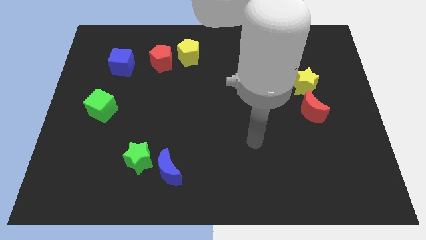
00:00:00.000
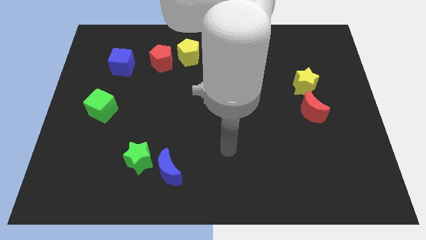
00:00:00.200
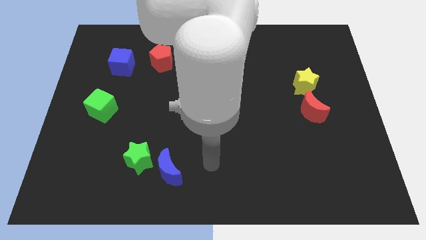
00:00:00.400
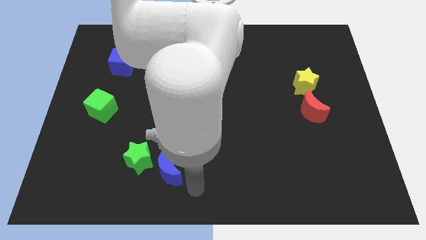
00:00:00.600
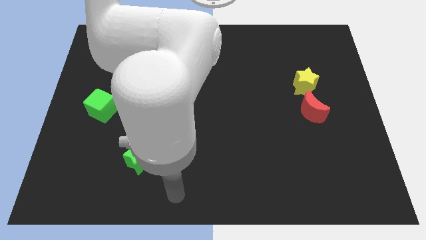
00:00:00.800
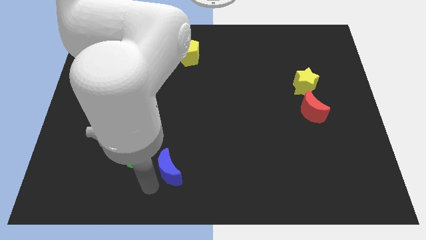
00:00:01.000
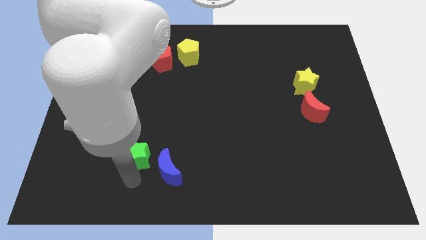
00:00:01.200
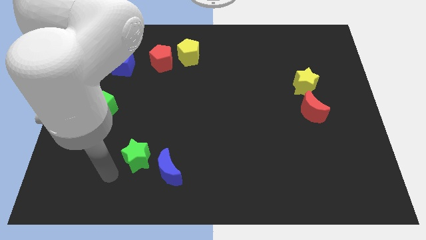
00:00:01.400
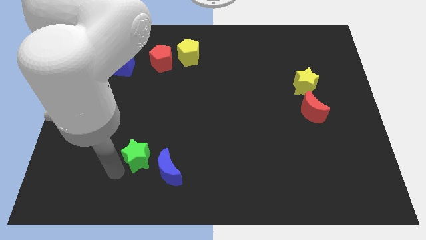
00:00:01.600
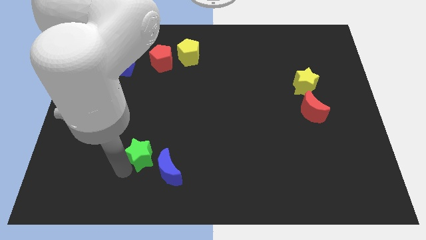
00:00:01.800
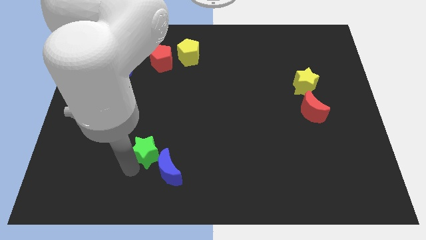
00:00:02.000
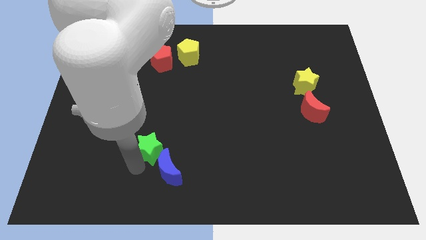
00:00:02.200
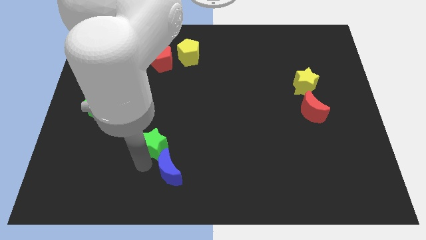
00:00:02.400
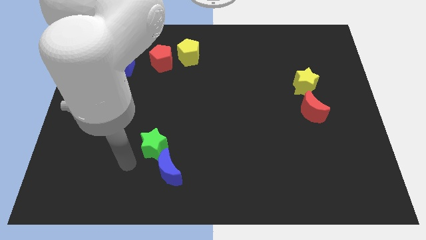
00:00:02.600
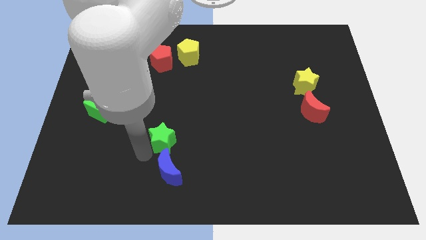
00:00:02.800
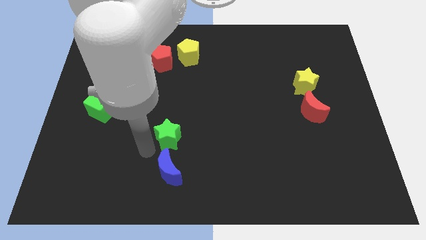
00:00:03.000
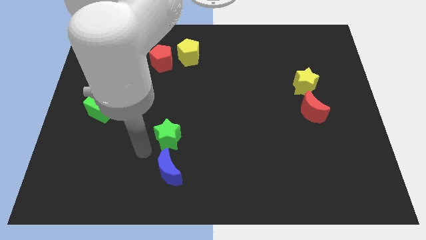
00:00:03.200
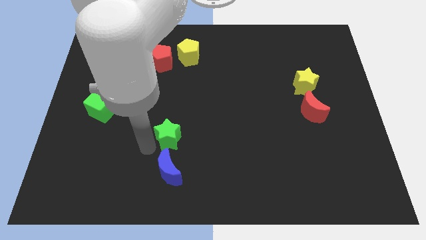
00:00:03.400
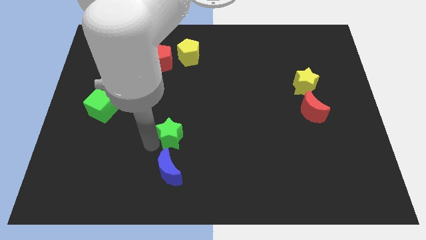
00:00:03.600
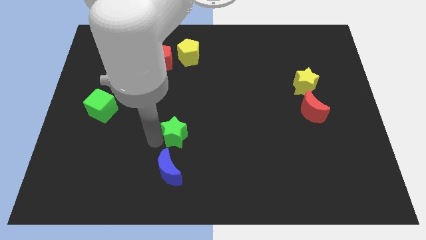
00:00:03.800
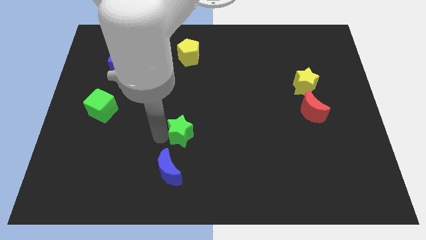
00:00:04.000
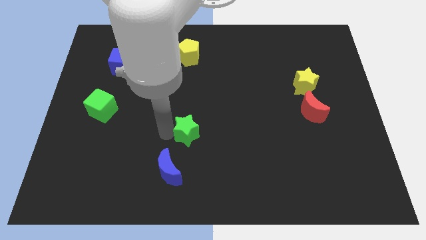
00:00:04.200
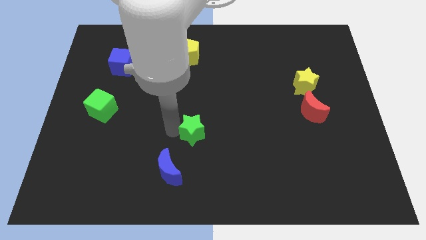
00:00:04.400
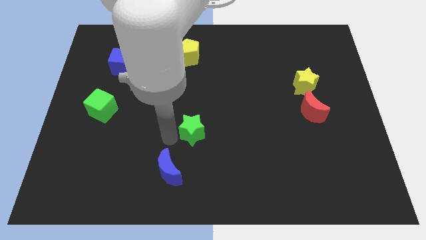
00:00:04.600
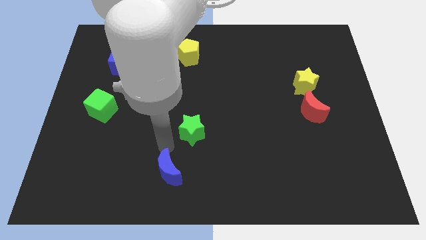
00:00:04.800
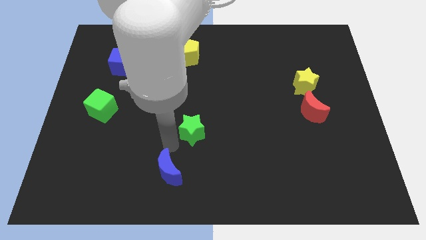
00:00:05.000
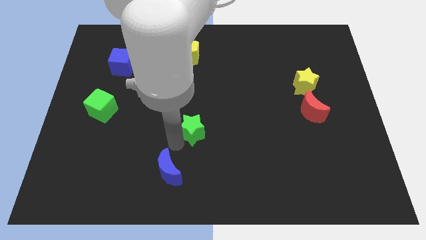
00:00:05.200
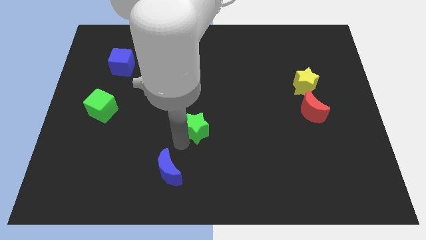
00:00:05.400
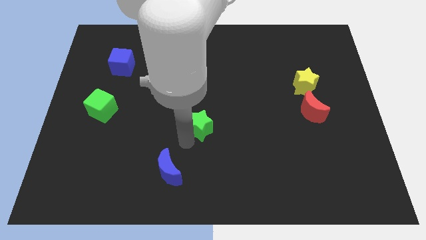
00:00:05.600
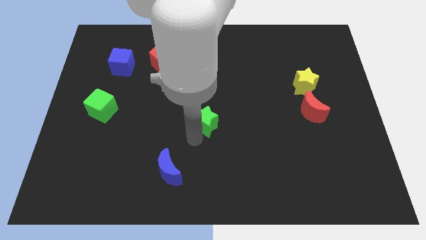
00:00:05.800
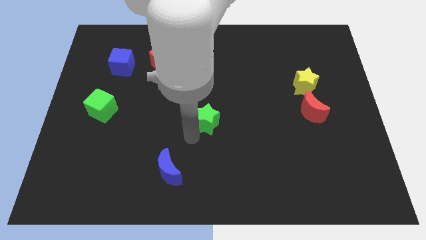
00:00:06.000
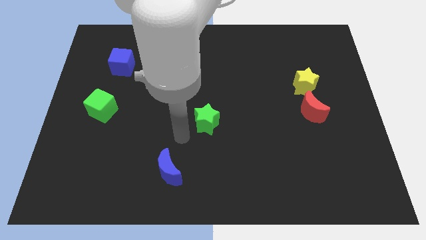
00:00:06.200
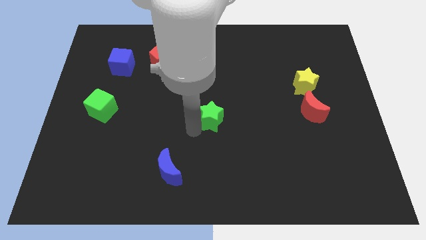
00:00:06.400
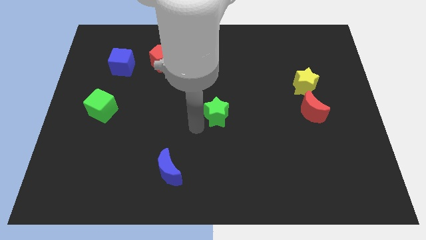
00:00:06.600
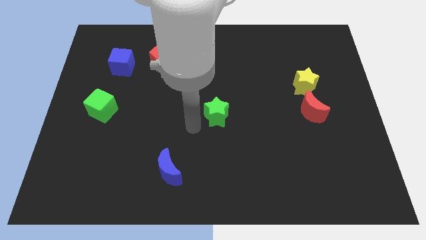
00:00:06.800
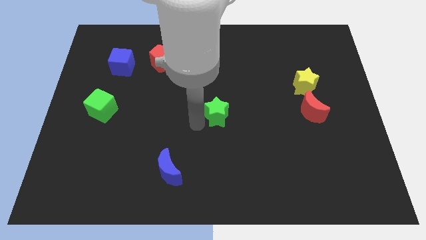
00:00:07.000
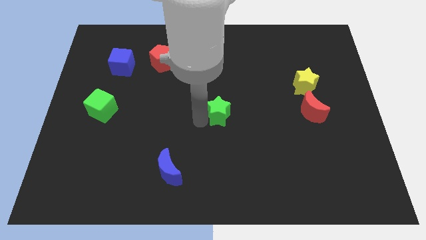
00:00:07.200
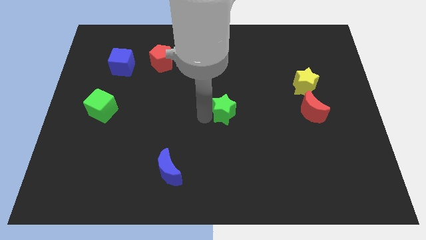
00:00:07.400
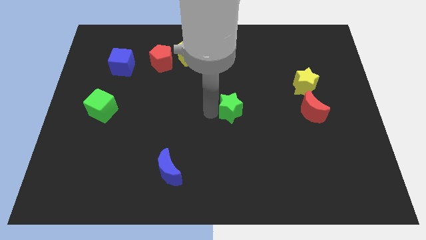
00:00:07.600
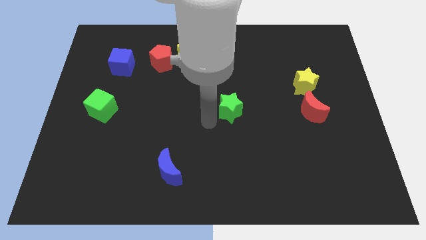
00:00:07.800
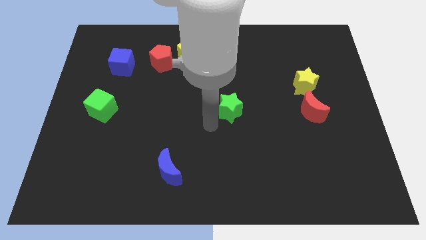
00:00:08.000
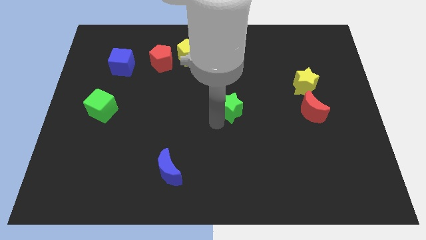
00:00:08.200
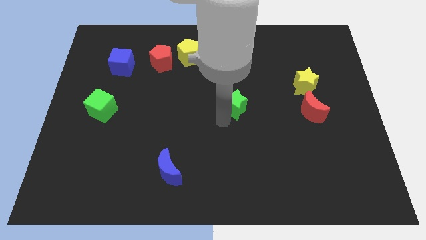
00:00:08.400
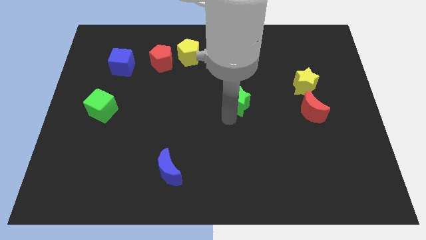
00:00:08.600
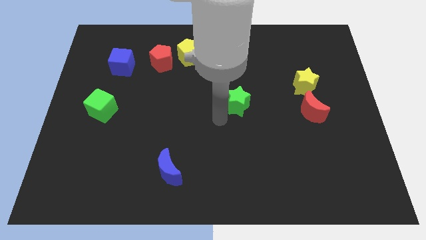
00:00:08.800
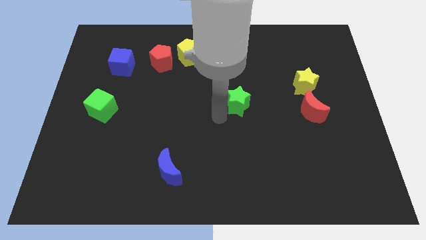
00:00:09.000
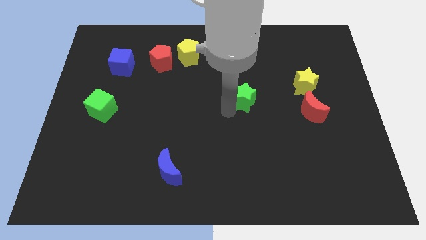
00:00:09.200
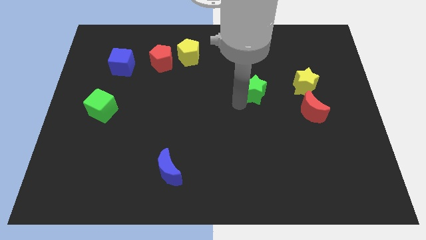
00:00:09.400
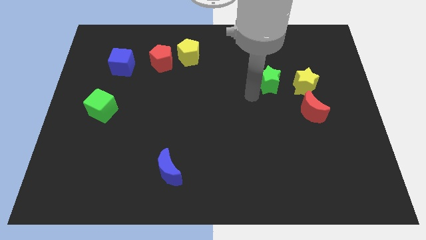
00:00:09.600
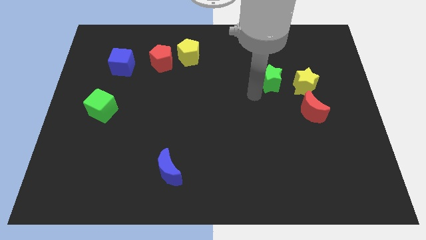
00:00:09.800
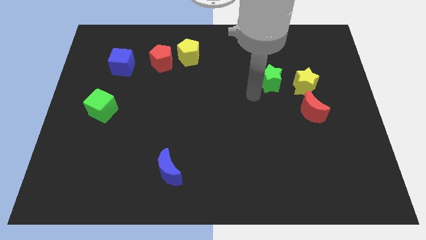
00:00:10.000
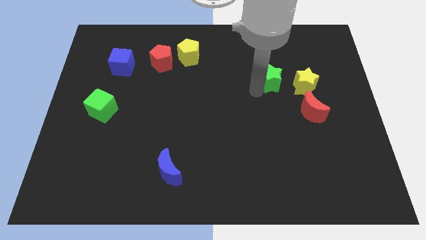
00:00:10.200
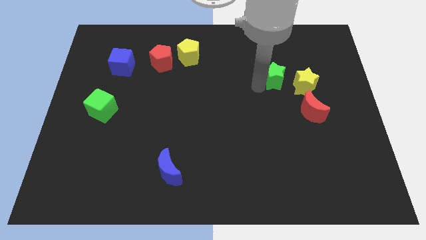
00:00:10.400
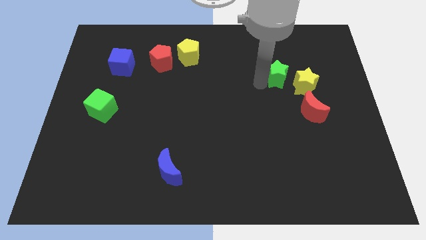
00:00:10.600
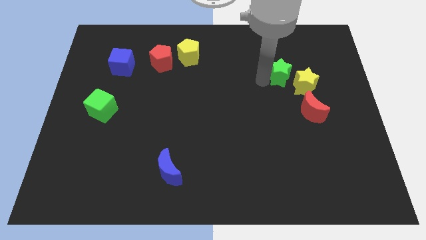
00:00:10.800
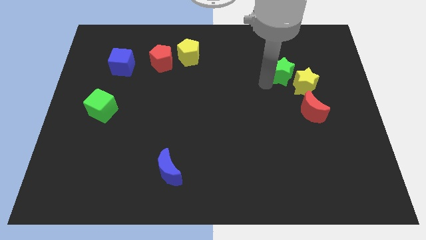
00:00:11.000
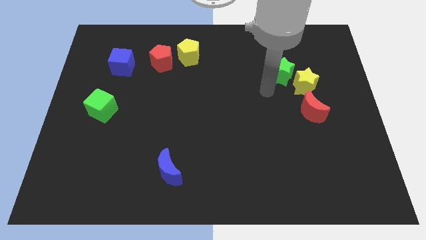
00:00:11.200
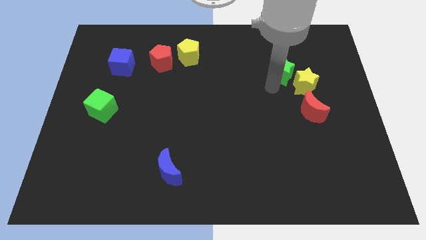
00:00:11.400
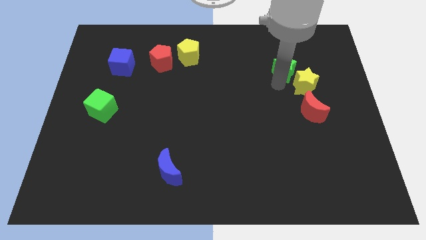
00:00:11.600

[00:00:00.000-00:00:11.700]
slide the green star to the top side of the yellow star

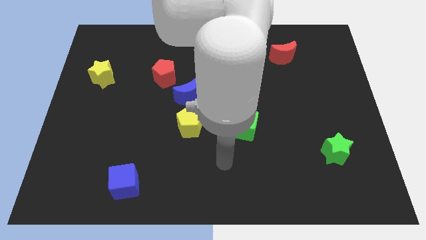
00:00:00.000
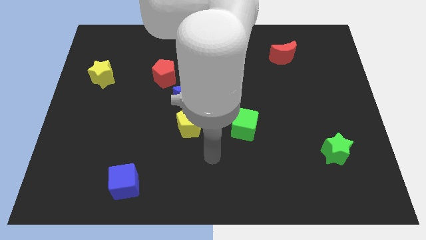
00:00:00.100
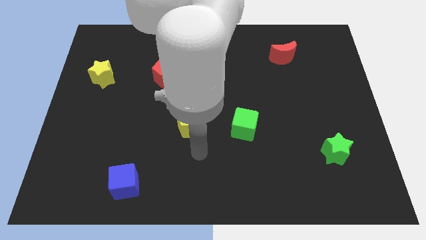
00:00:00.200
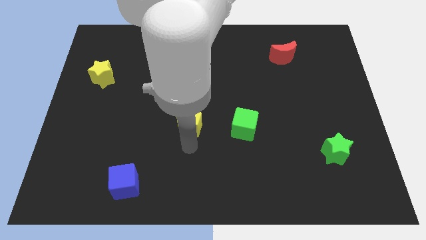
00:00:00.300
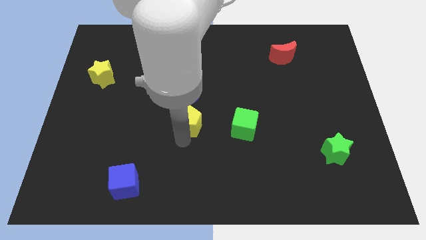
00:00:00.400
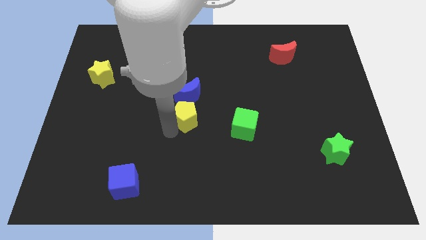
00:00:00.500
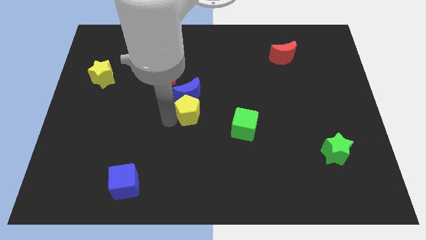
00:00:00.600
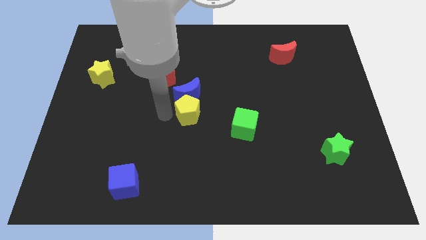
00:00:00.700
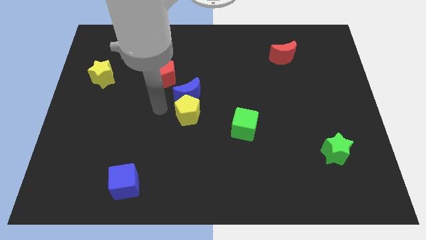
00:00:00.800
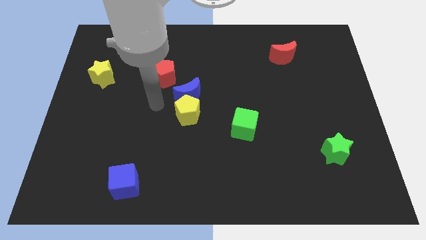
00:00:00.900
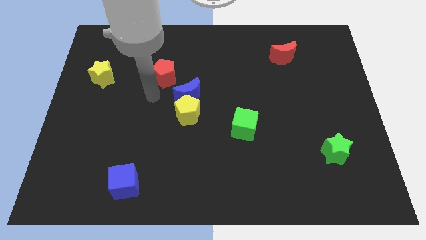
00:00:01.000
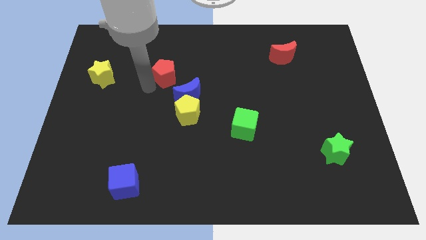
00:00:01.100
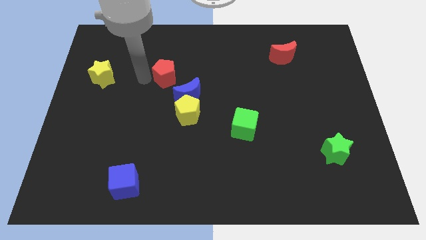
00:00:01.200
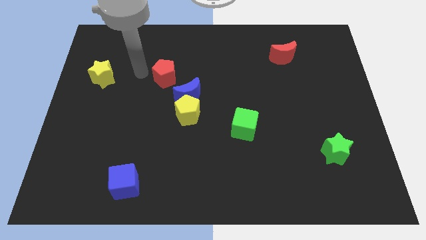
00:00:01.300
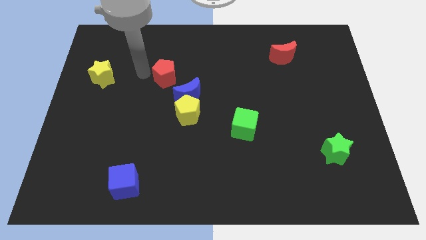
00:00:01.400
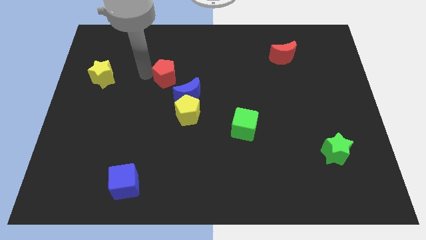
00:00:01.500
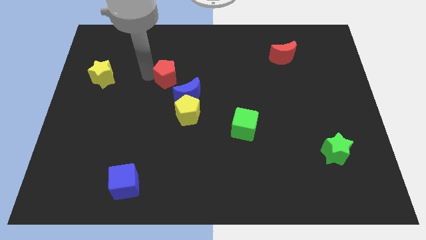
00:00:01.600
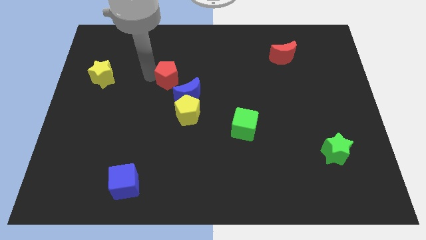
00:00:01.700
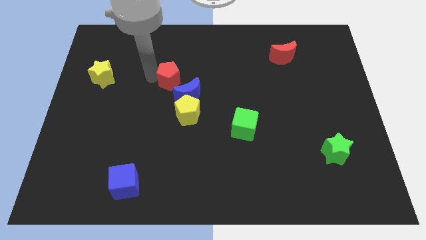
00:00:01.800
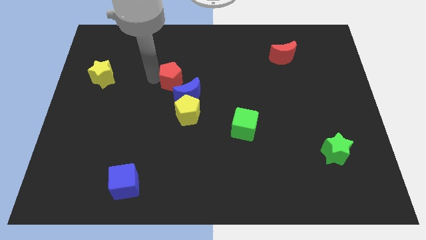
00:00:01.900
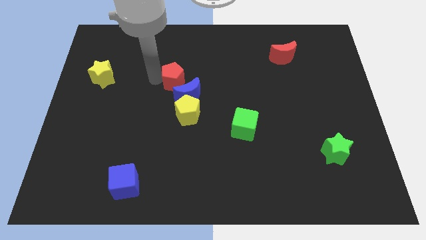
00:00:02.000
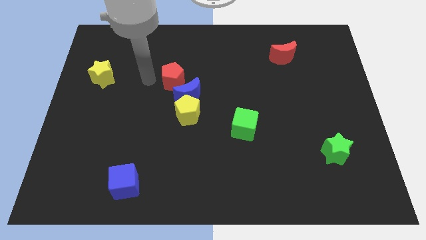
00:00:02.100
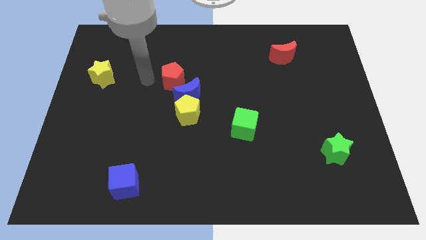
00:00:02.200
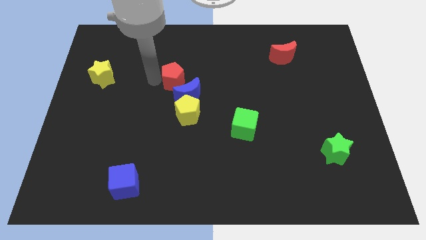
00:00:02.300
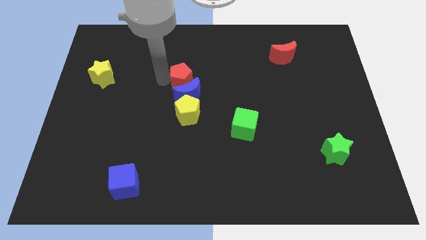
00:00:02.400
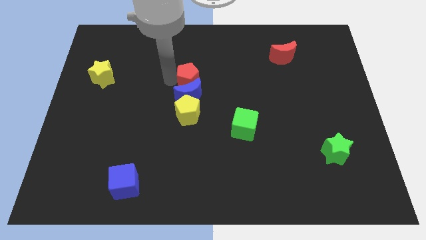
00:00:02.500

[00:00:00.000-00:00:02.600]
put the red pentagon to the top right side of the blue moon
